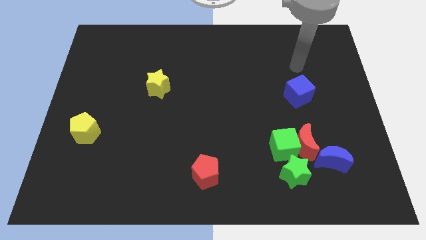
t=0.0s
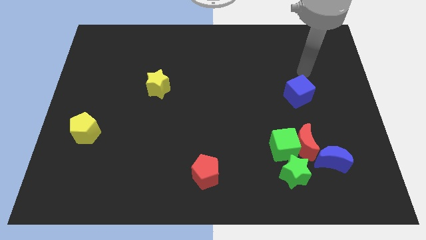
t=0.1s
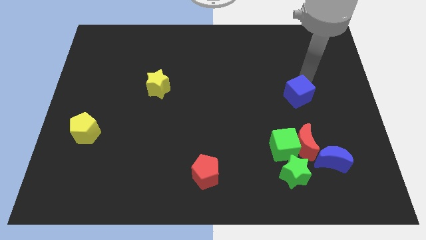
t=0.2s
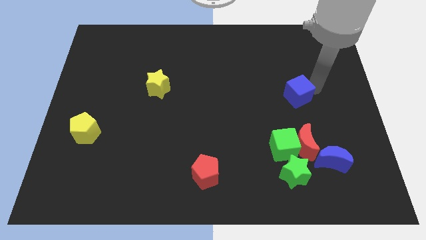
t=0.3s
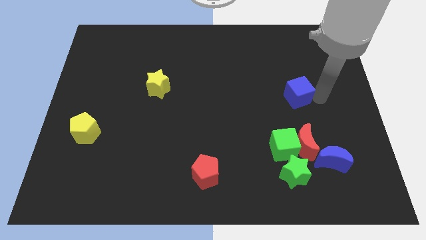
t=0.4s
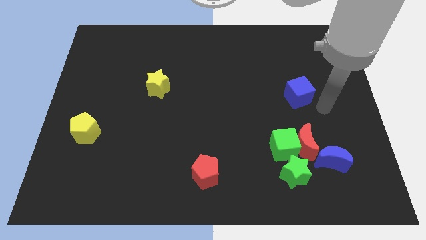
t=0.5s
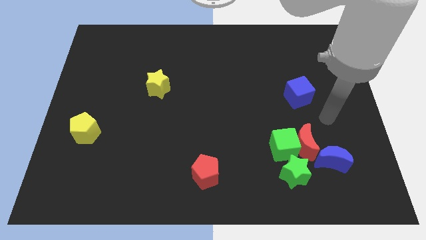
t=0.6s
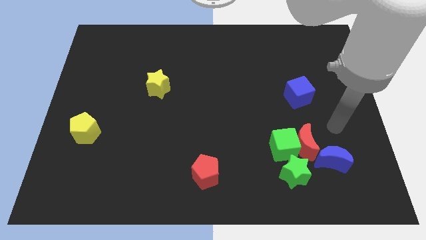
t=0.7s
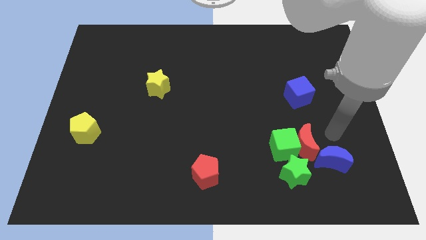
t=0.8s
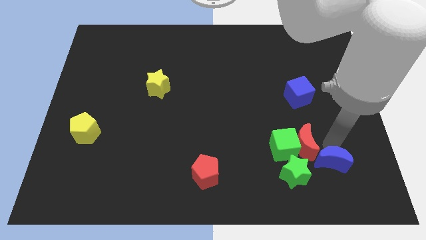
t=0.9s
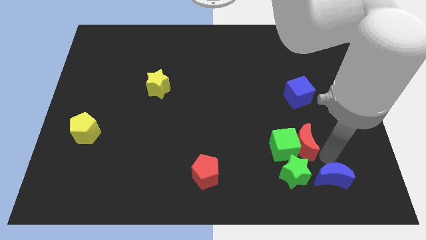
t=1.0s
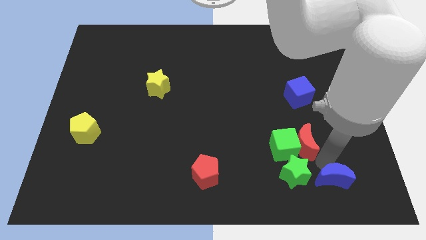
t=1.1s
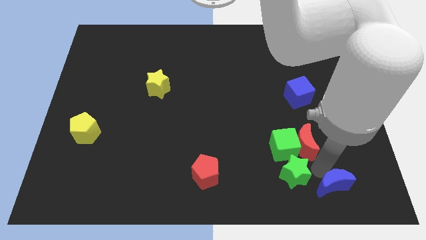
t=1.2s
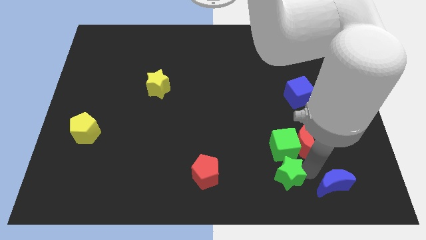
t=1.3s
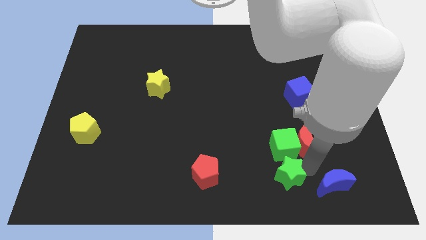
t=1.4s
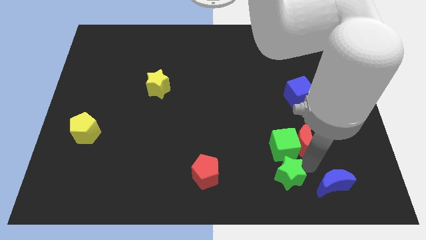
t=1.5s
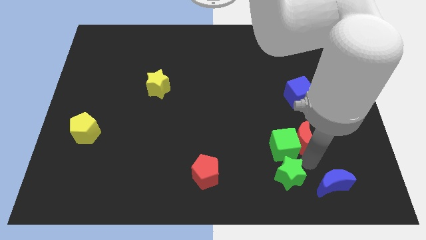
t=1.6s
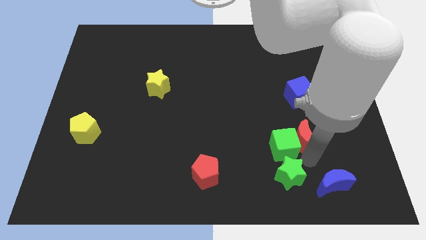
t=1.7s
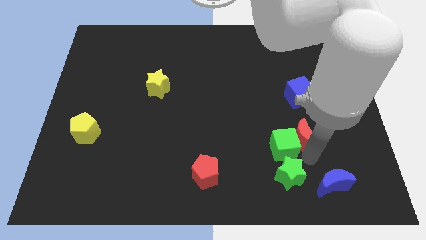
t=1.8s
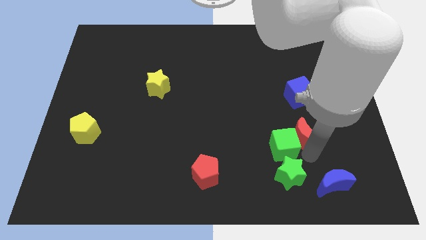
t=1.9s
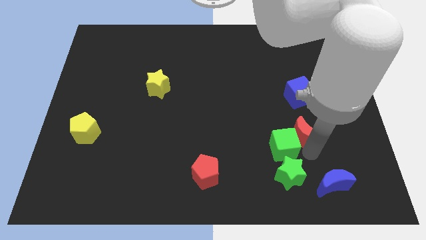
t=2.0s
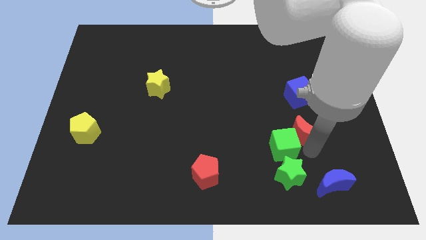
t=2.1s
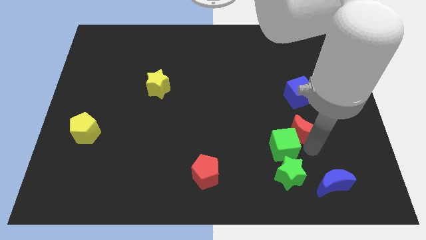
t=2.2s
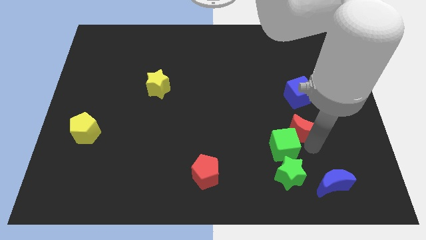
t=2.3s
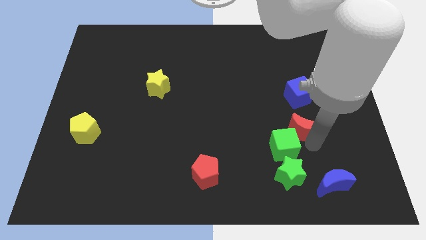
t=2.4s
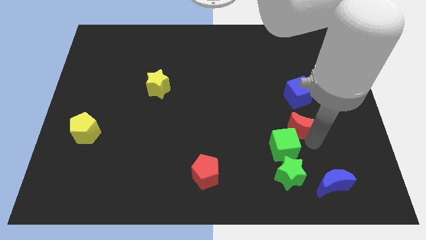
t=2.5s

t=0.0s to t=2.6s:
pull the red moon apart from the green cube, blue moon, and green star

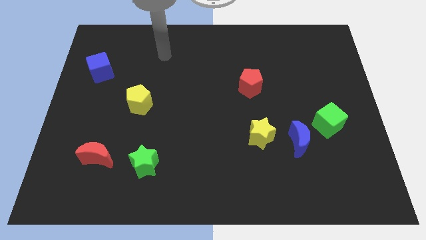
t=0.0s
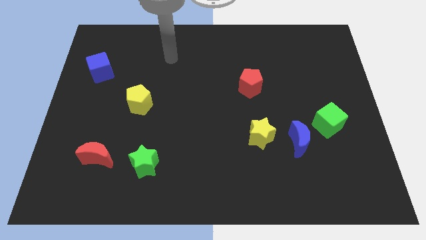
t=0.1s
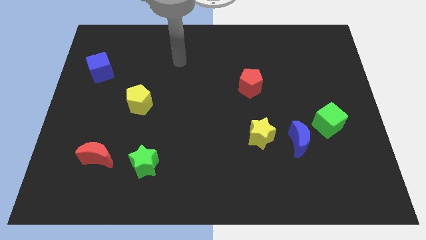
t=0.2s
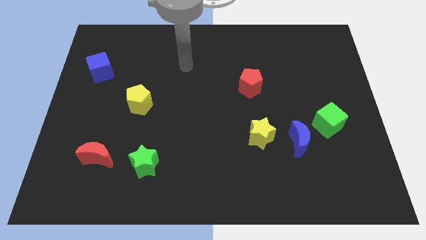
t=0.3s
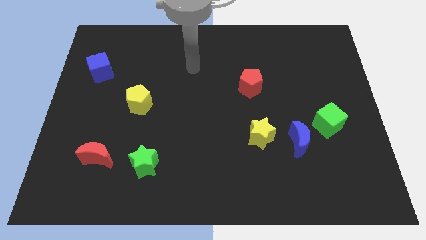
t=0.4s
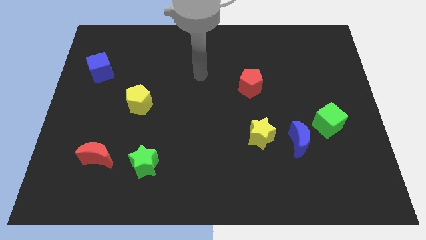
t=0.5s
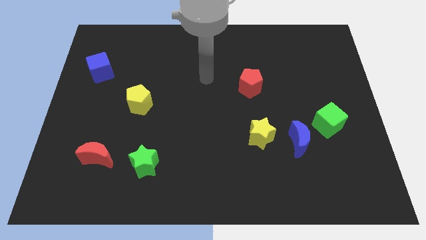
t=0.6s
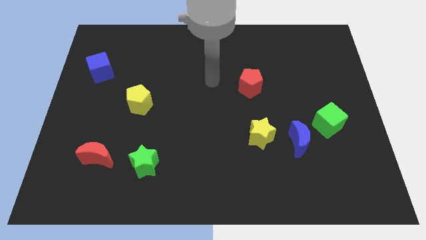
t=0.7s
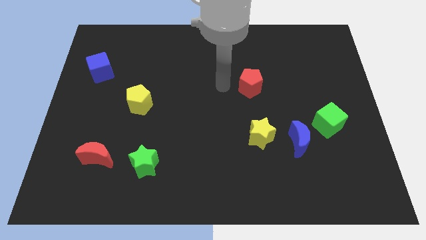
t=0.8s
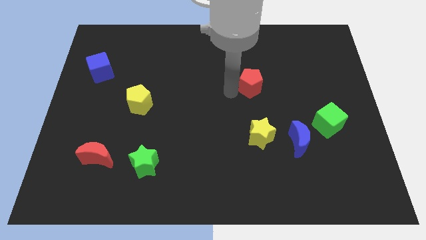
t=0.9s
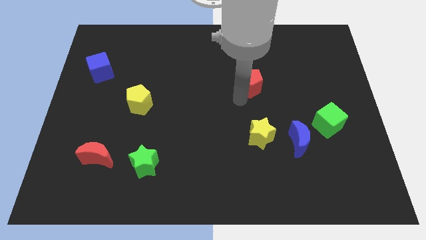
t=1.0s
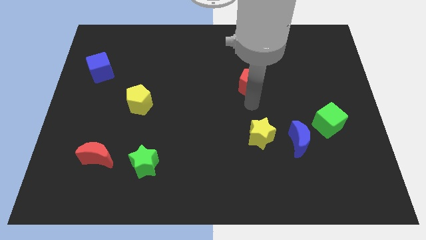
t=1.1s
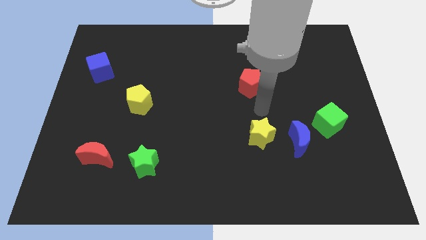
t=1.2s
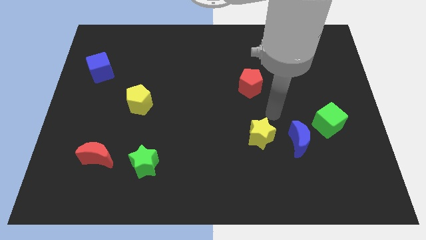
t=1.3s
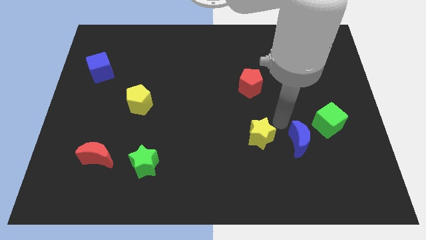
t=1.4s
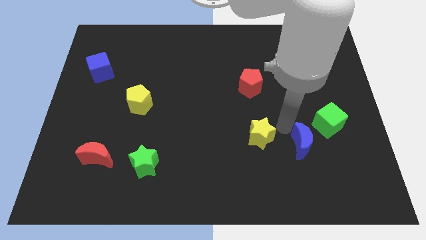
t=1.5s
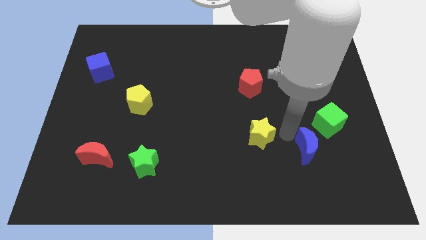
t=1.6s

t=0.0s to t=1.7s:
pull the yellow star apart from the blue moon

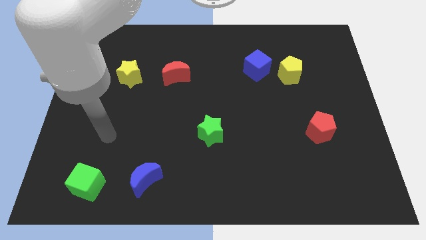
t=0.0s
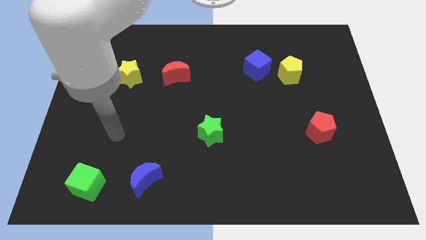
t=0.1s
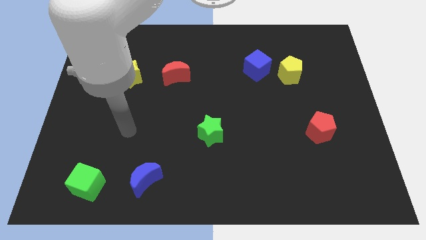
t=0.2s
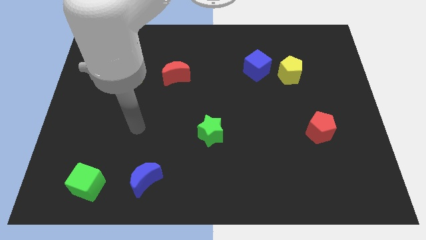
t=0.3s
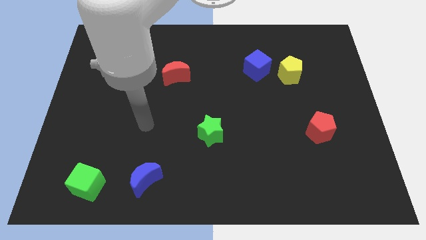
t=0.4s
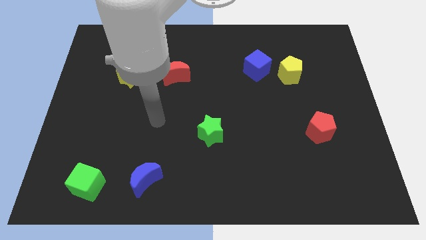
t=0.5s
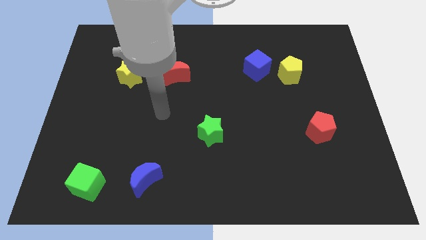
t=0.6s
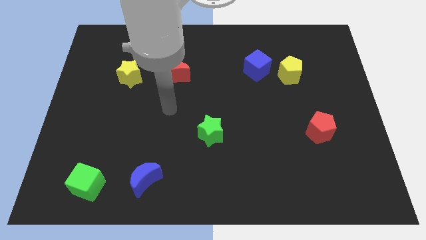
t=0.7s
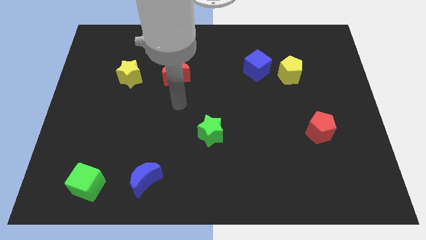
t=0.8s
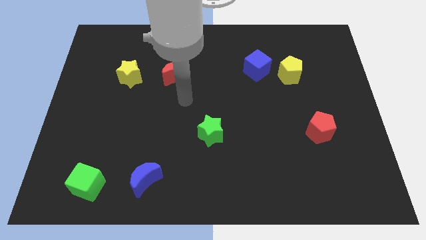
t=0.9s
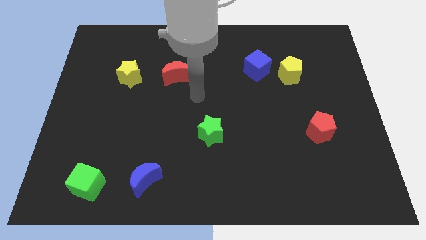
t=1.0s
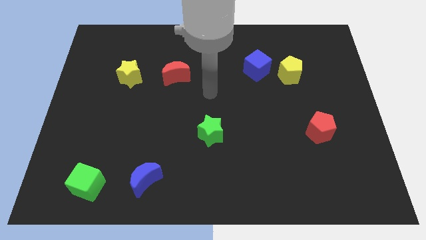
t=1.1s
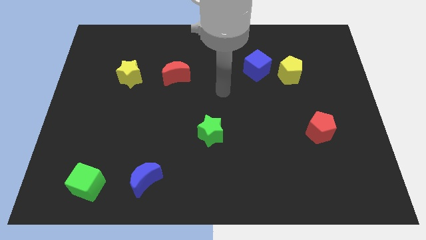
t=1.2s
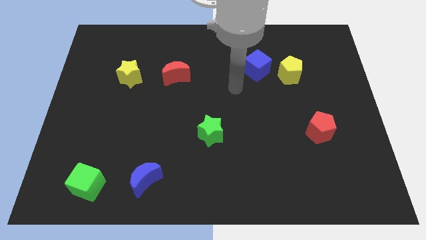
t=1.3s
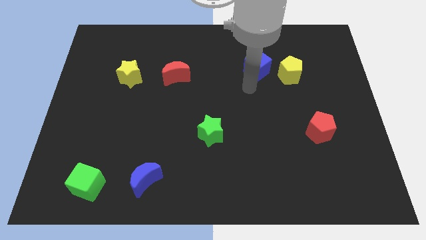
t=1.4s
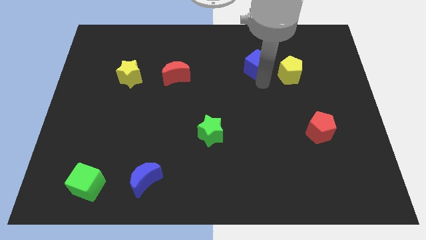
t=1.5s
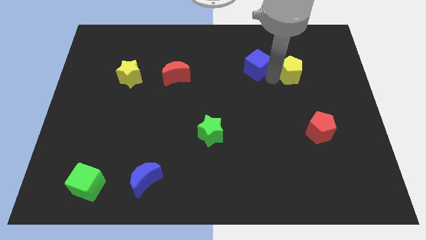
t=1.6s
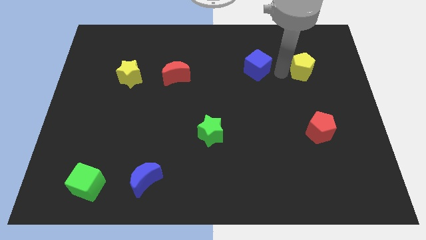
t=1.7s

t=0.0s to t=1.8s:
separate the blue cube from the yellow pentagon

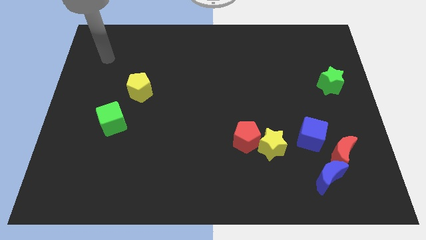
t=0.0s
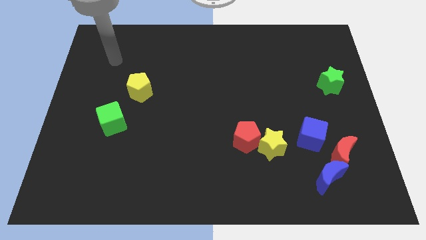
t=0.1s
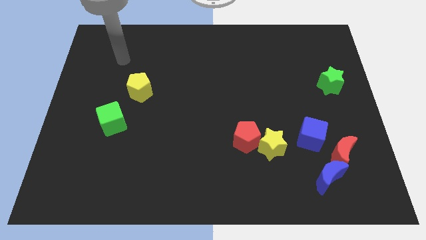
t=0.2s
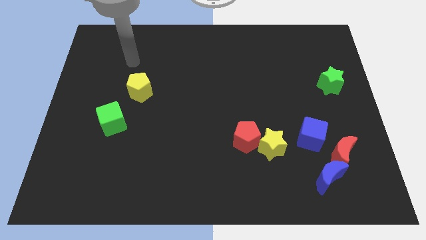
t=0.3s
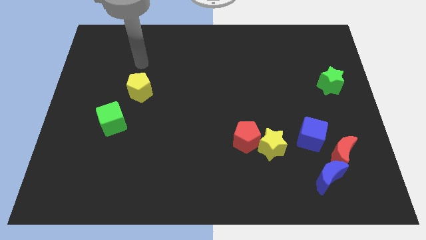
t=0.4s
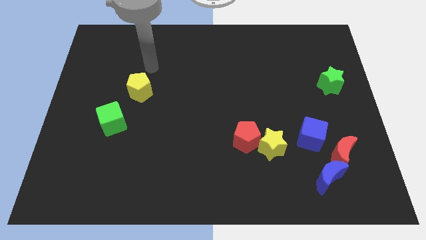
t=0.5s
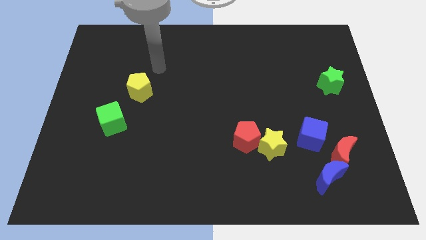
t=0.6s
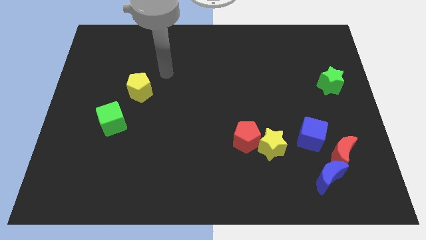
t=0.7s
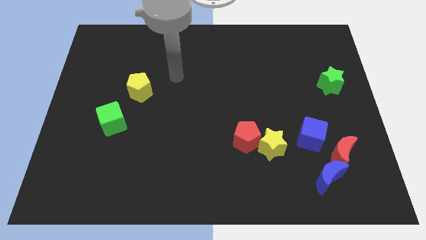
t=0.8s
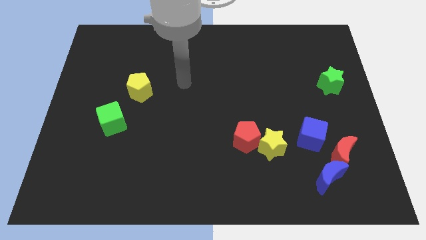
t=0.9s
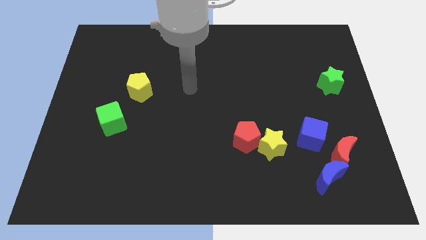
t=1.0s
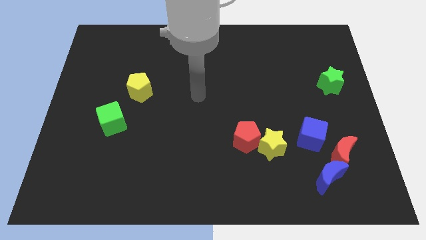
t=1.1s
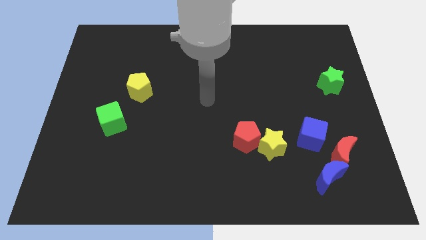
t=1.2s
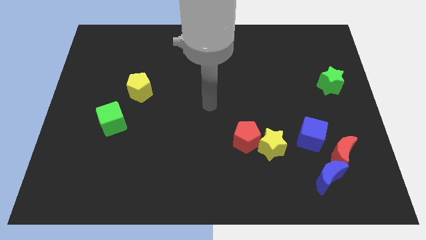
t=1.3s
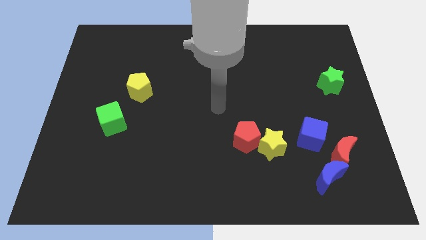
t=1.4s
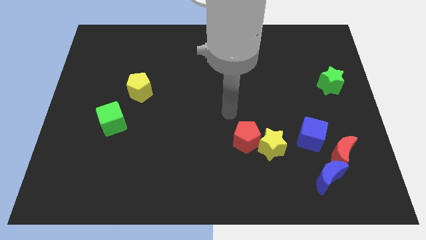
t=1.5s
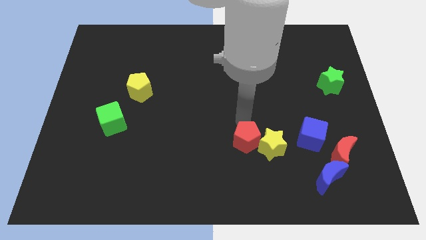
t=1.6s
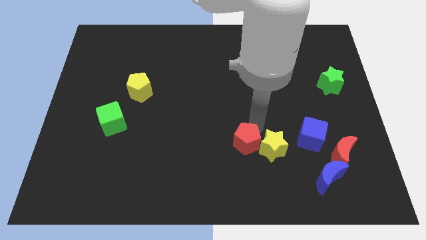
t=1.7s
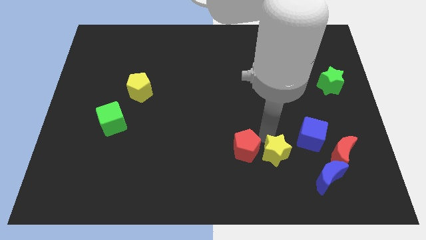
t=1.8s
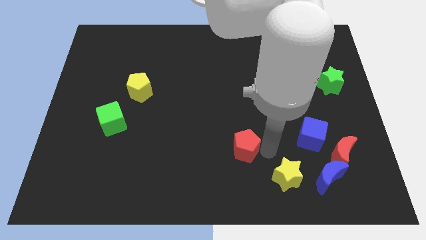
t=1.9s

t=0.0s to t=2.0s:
separate the red pentagon from the yellow star

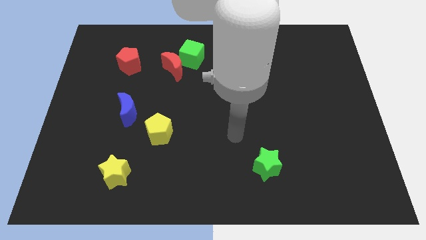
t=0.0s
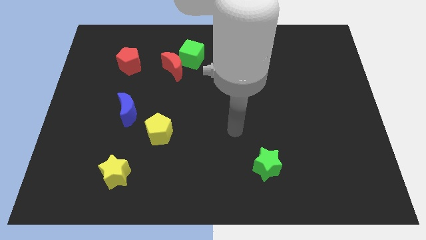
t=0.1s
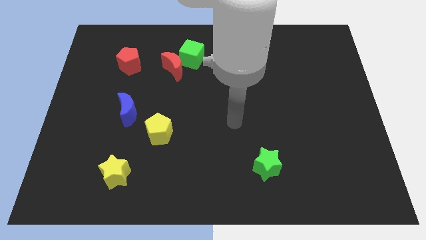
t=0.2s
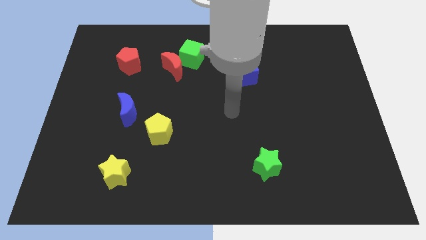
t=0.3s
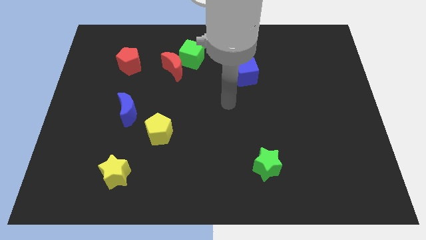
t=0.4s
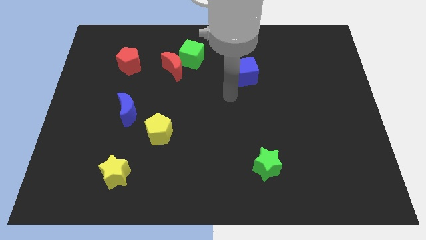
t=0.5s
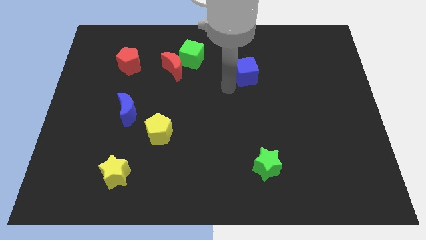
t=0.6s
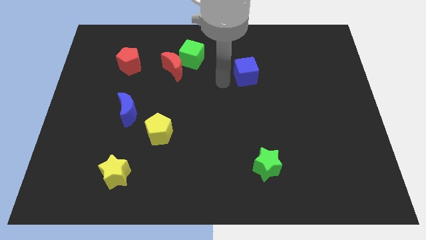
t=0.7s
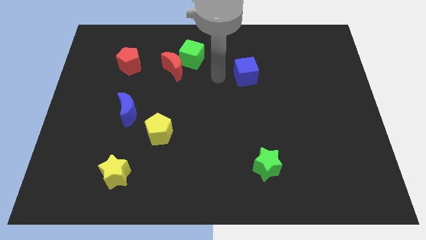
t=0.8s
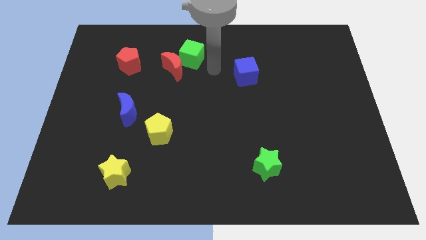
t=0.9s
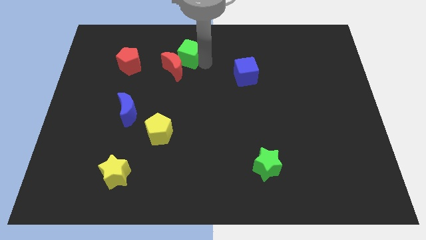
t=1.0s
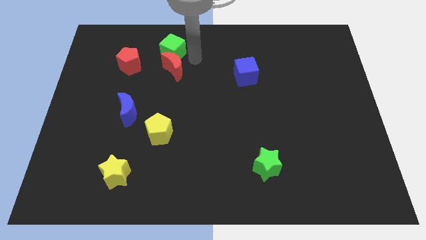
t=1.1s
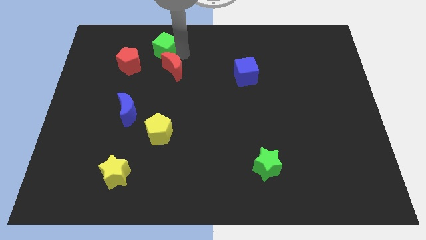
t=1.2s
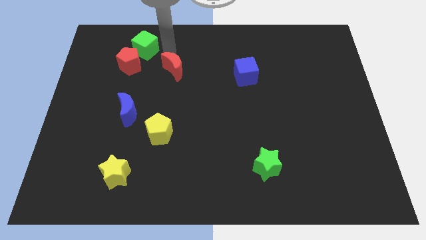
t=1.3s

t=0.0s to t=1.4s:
separate the red moon from the green cube

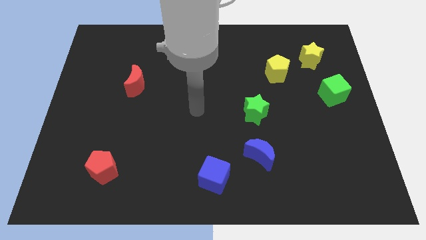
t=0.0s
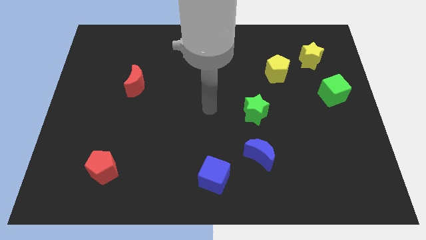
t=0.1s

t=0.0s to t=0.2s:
separate the yellow star from the yellow pentagon
